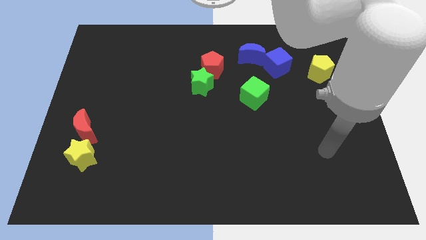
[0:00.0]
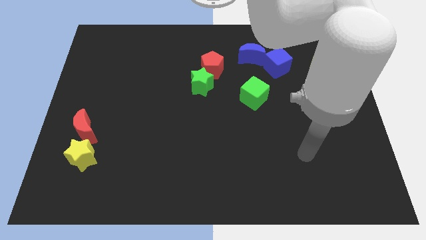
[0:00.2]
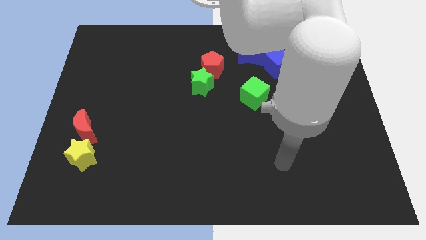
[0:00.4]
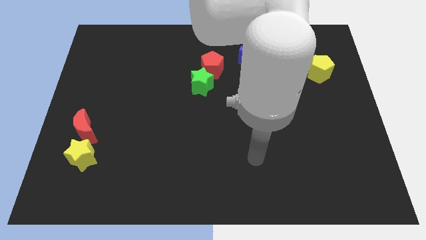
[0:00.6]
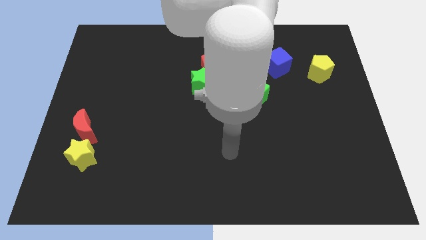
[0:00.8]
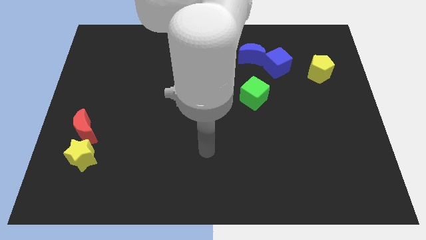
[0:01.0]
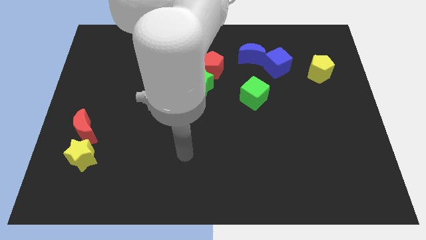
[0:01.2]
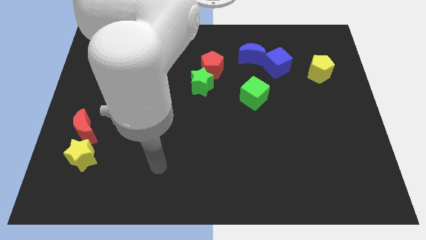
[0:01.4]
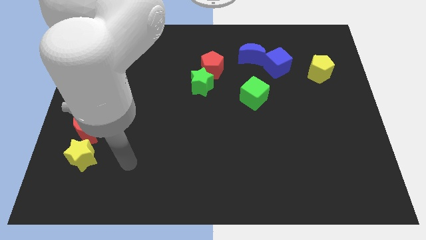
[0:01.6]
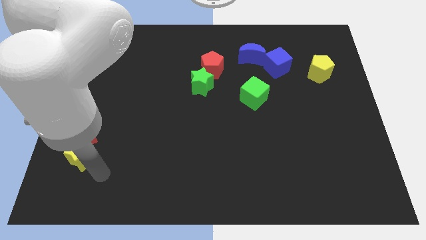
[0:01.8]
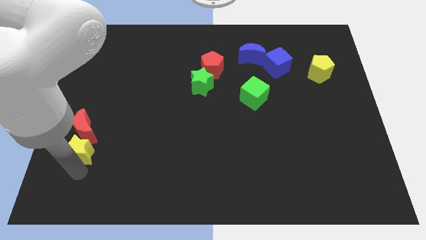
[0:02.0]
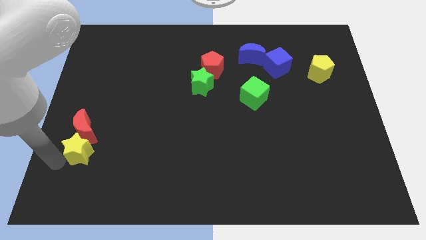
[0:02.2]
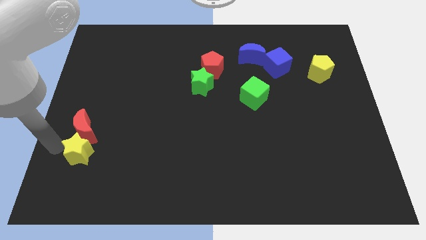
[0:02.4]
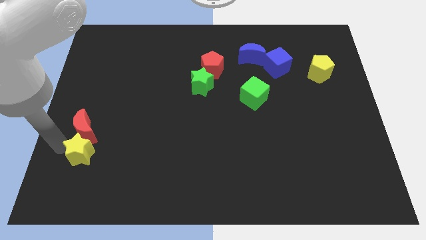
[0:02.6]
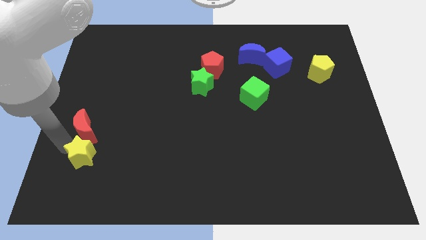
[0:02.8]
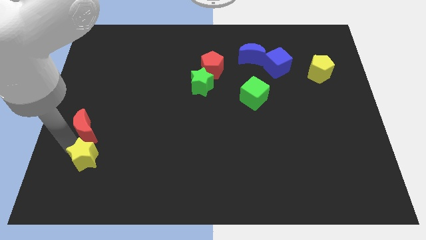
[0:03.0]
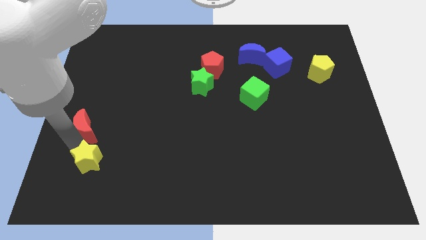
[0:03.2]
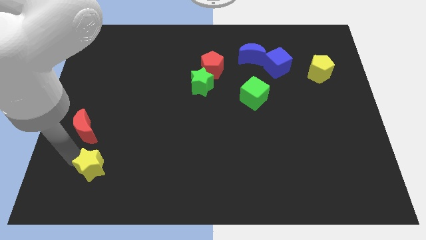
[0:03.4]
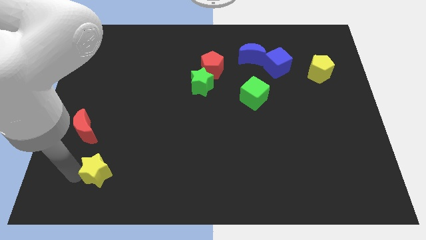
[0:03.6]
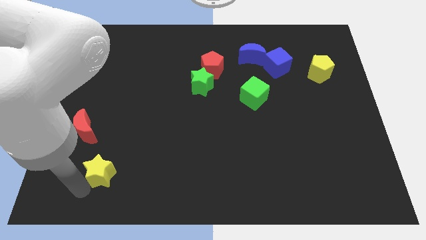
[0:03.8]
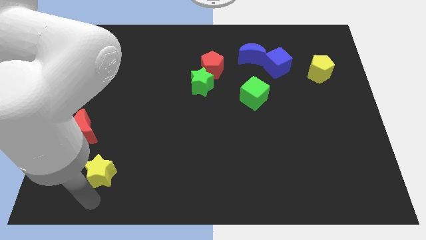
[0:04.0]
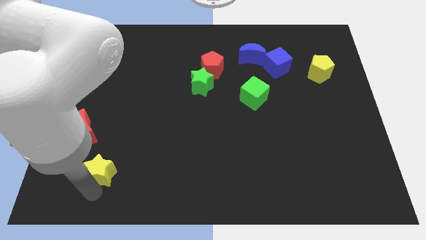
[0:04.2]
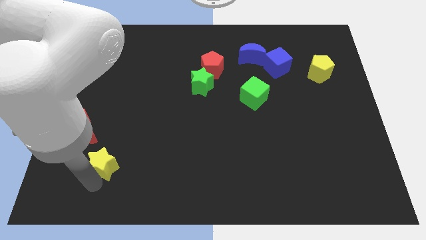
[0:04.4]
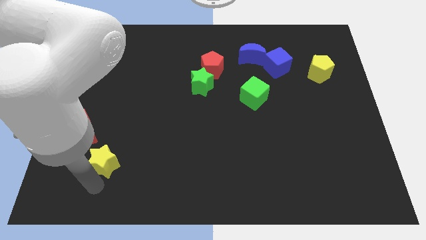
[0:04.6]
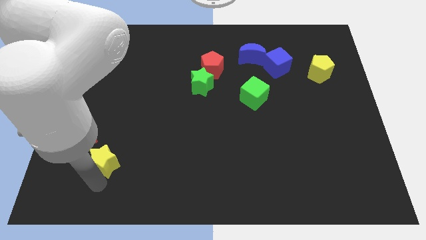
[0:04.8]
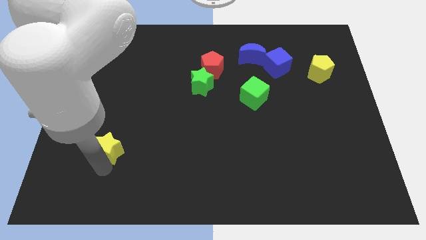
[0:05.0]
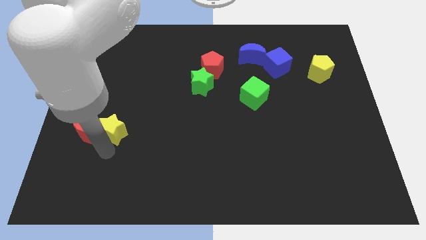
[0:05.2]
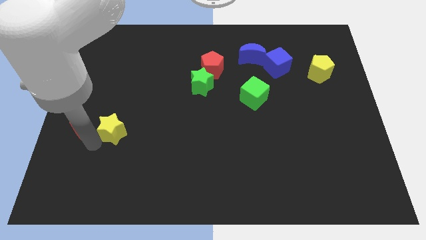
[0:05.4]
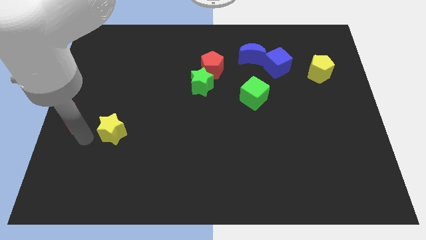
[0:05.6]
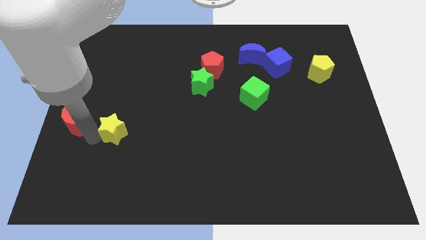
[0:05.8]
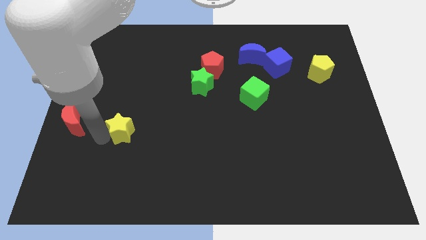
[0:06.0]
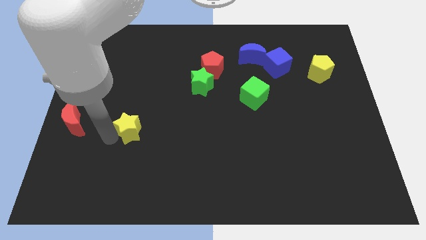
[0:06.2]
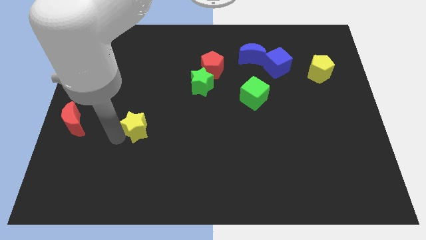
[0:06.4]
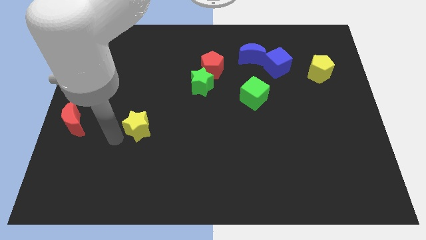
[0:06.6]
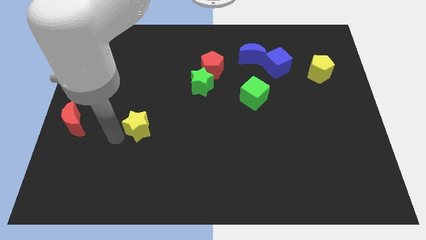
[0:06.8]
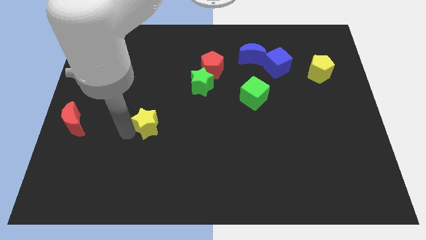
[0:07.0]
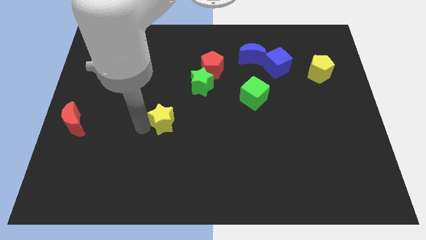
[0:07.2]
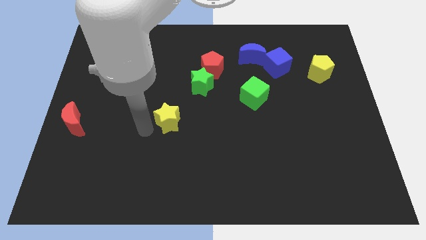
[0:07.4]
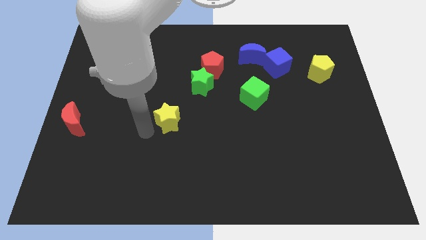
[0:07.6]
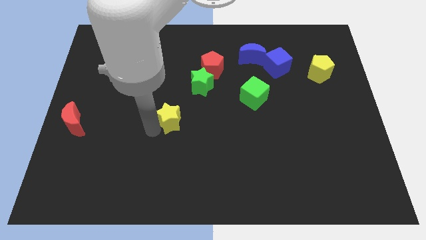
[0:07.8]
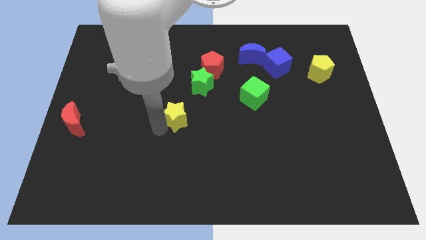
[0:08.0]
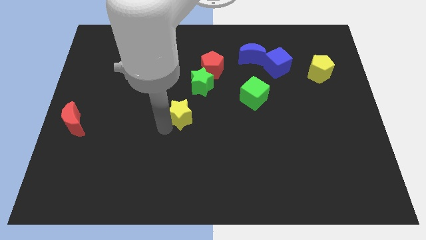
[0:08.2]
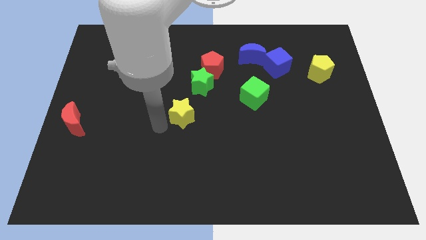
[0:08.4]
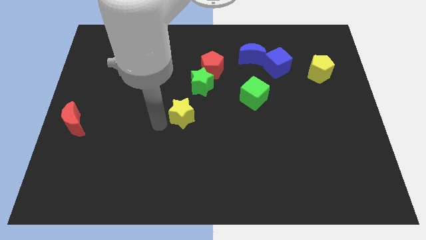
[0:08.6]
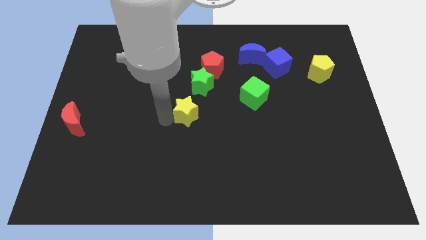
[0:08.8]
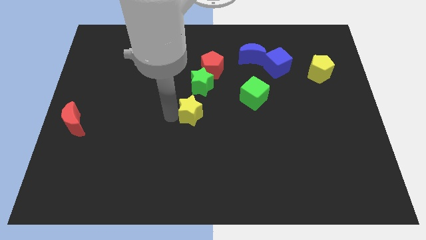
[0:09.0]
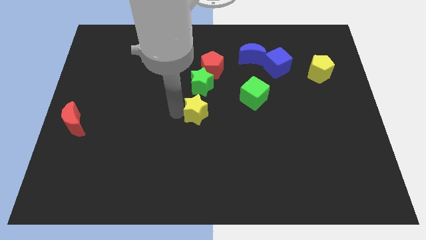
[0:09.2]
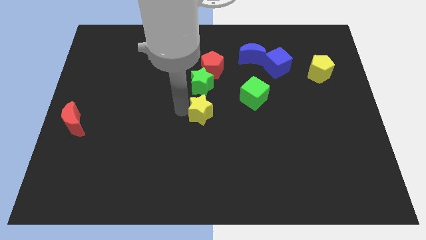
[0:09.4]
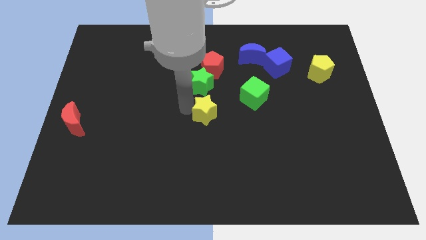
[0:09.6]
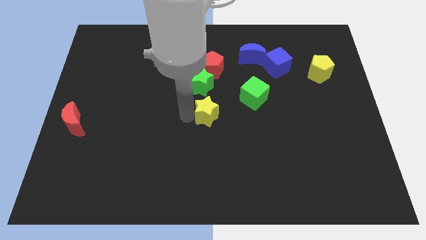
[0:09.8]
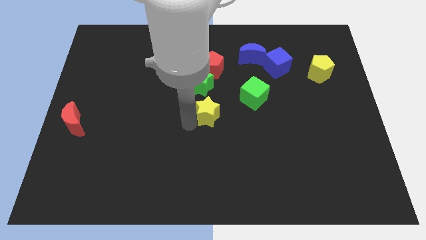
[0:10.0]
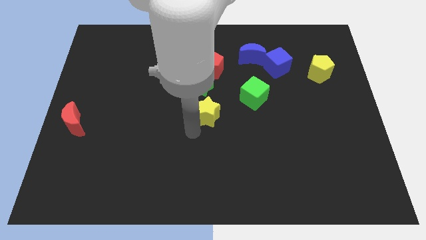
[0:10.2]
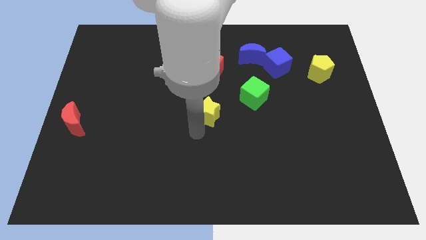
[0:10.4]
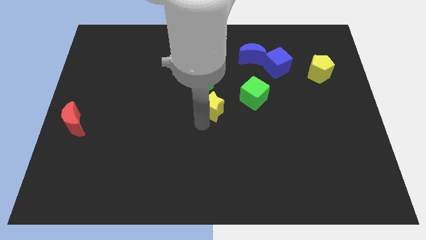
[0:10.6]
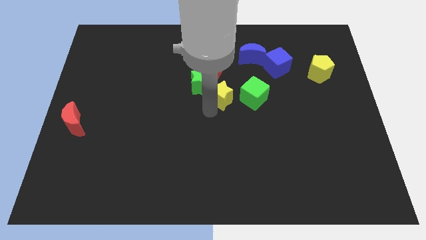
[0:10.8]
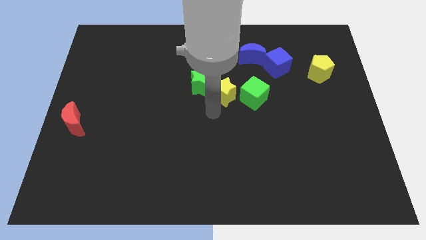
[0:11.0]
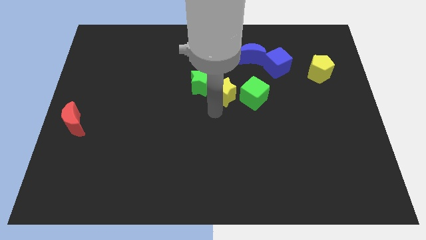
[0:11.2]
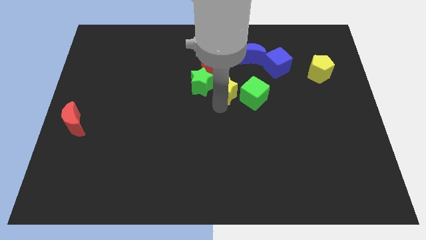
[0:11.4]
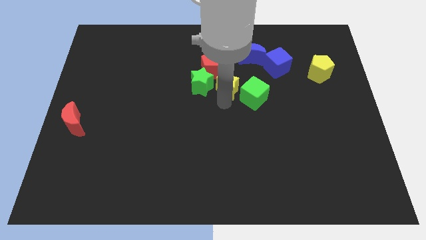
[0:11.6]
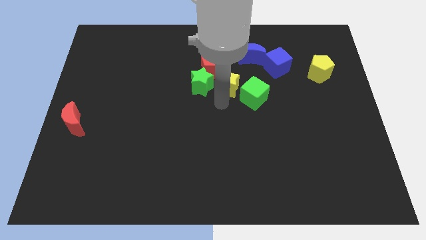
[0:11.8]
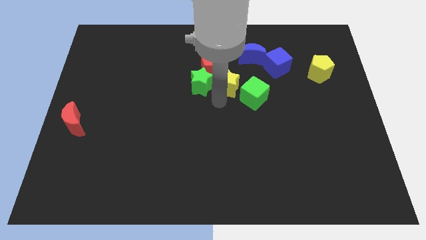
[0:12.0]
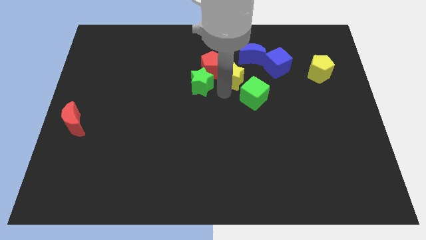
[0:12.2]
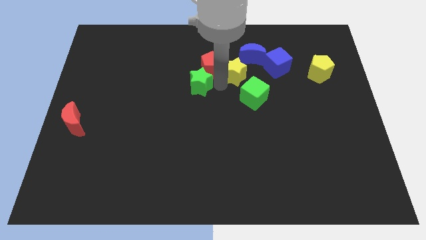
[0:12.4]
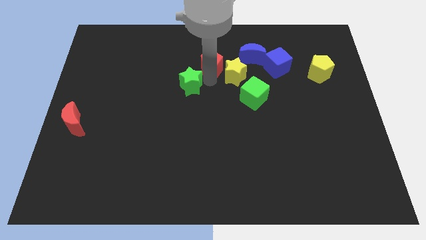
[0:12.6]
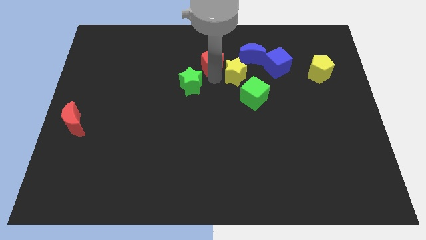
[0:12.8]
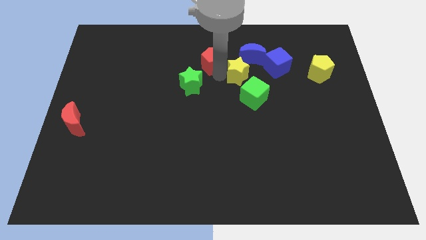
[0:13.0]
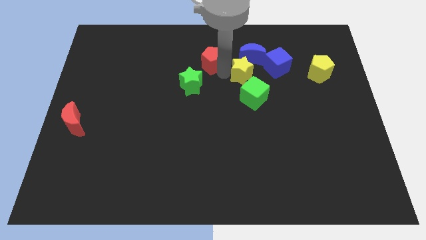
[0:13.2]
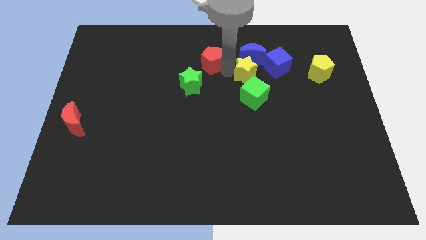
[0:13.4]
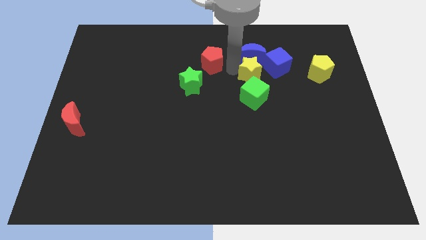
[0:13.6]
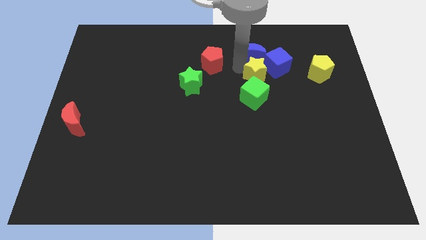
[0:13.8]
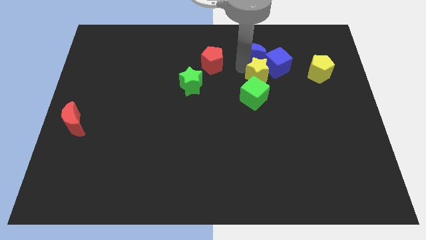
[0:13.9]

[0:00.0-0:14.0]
move the yellow star close to the blue cube

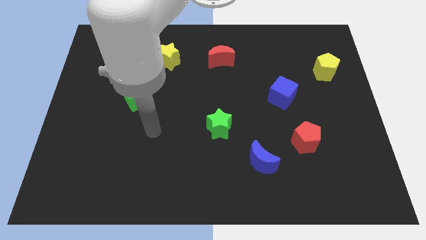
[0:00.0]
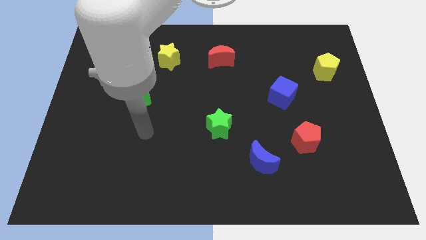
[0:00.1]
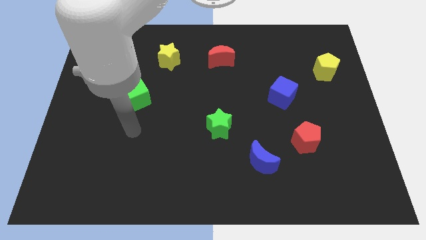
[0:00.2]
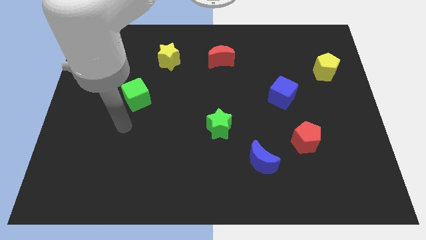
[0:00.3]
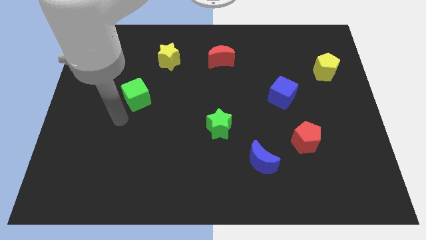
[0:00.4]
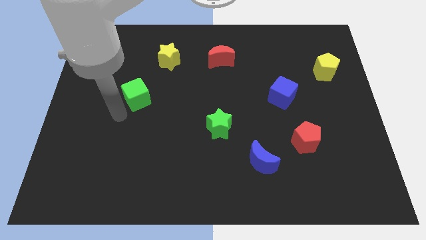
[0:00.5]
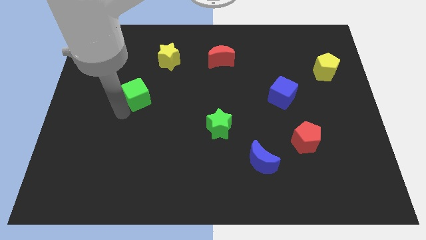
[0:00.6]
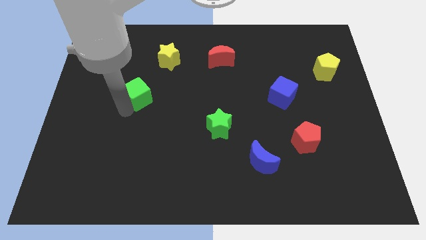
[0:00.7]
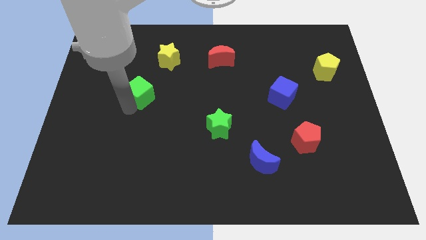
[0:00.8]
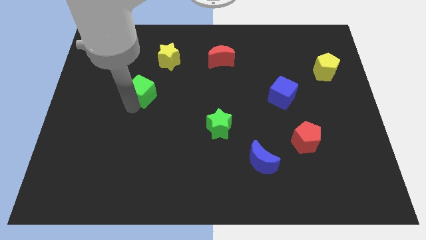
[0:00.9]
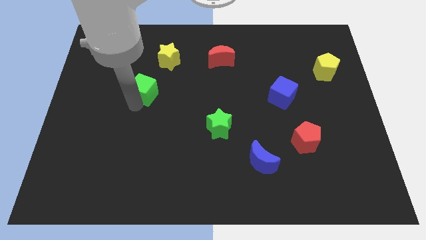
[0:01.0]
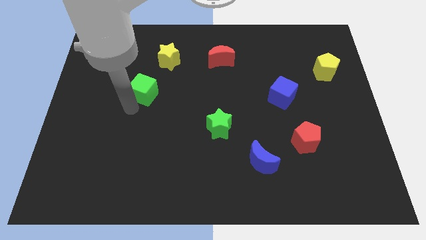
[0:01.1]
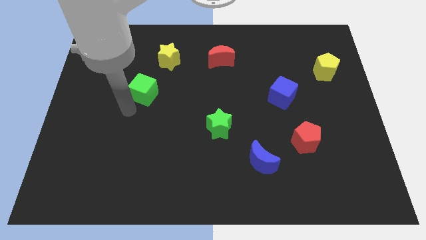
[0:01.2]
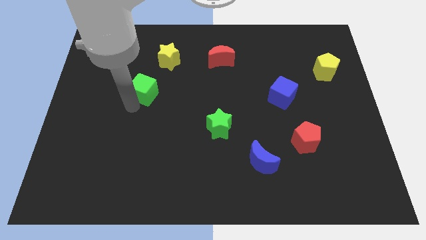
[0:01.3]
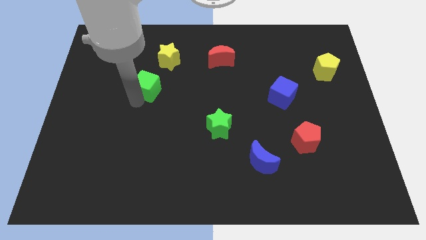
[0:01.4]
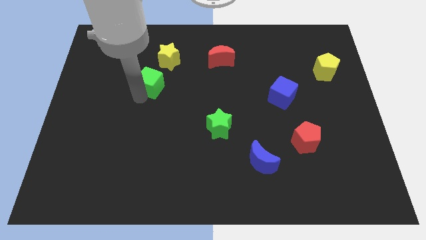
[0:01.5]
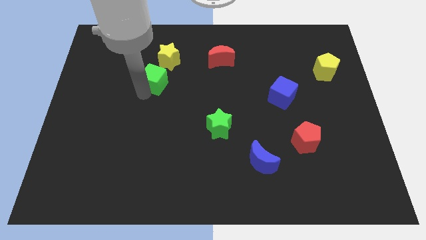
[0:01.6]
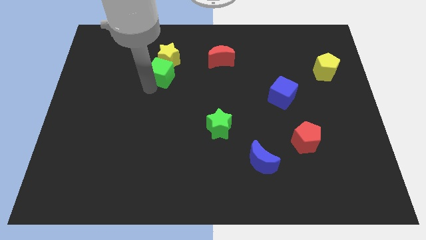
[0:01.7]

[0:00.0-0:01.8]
move the green cube close to the yellow star
